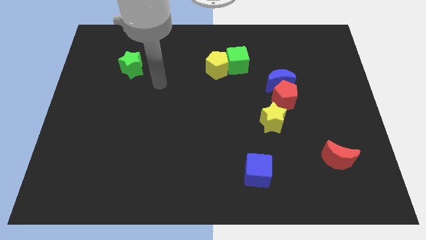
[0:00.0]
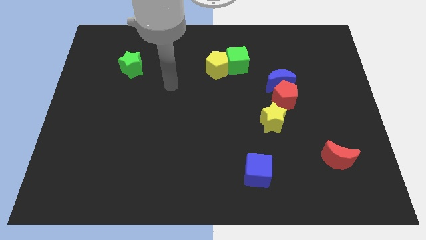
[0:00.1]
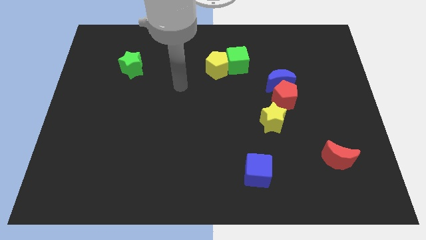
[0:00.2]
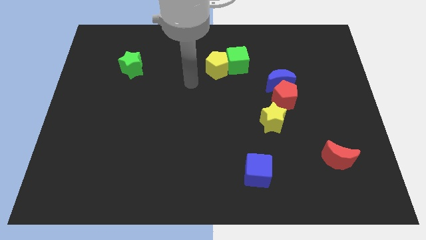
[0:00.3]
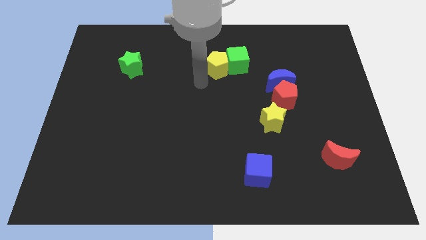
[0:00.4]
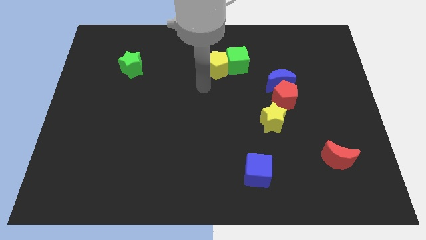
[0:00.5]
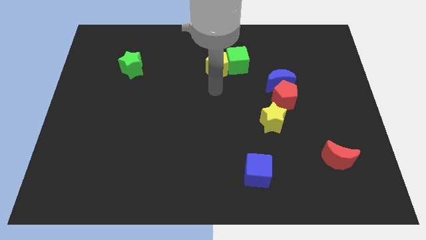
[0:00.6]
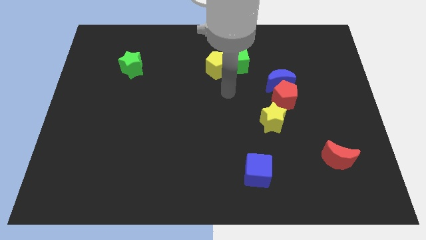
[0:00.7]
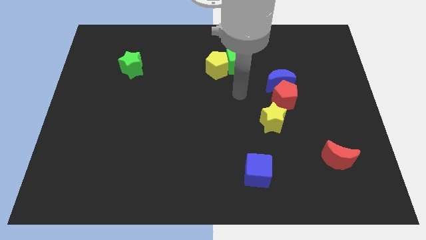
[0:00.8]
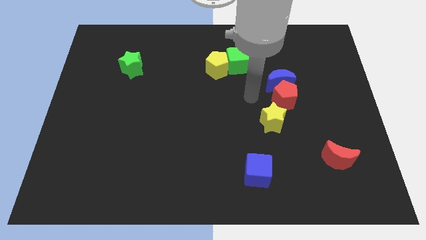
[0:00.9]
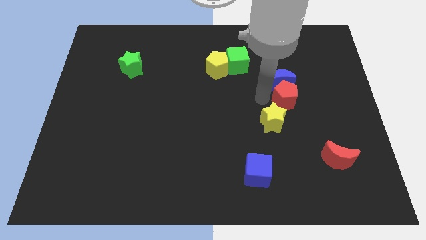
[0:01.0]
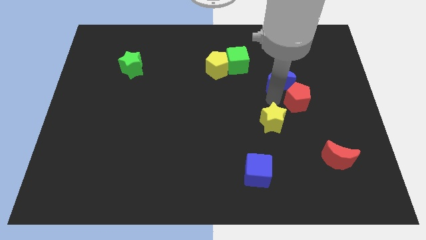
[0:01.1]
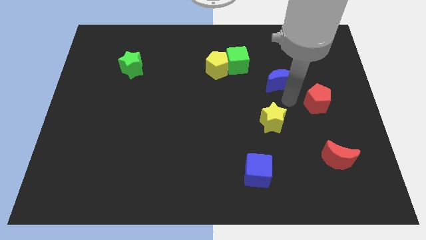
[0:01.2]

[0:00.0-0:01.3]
pull the blue moon apart from the red pentagon

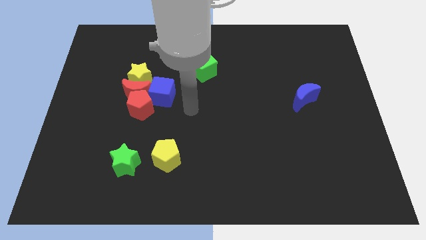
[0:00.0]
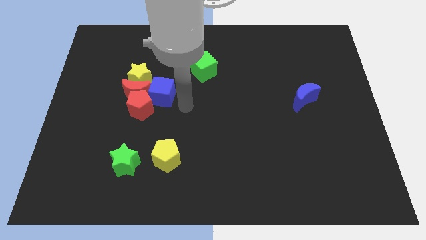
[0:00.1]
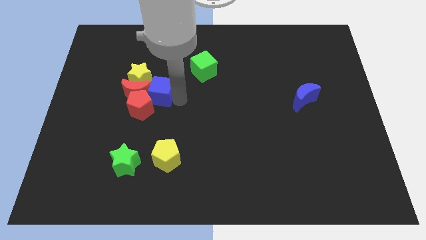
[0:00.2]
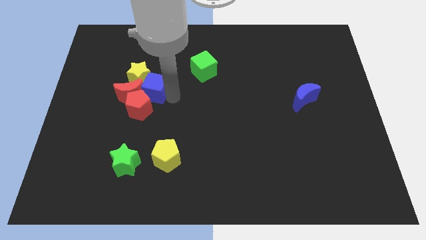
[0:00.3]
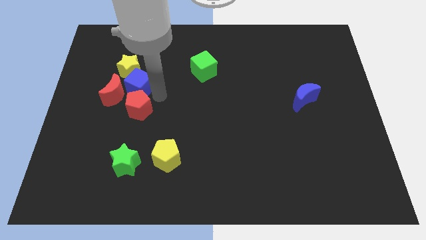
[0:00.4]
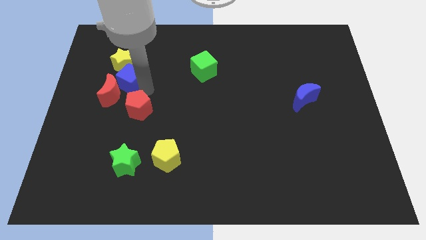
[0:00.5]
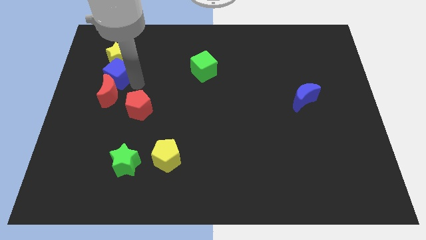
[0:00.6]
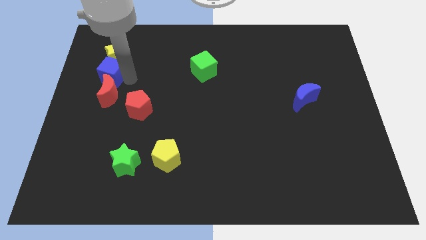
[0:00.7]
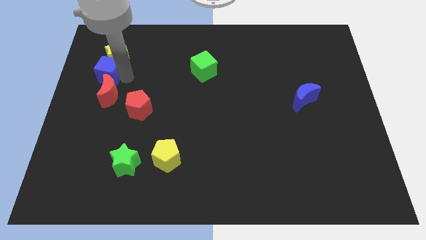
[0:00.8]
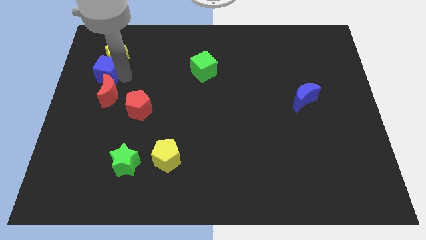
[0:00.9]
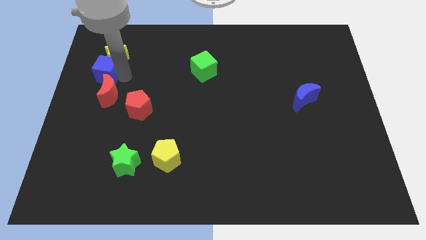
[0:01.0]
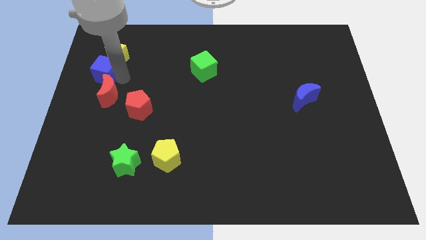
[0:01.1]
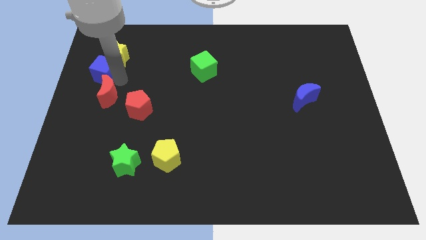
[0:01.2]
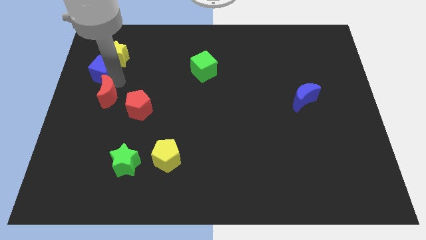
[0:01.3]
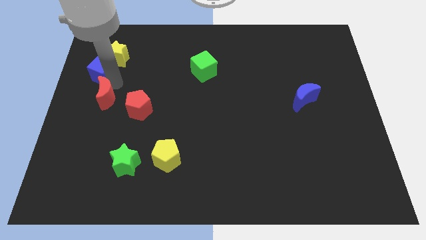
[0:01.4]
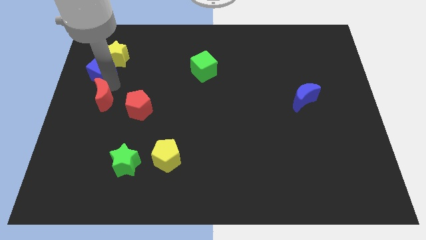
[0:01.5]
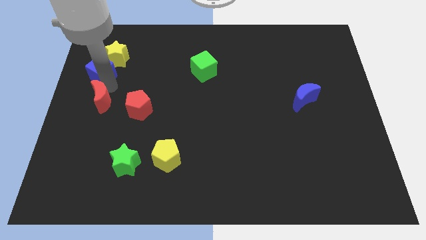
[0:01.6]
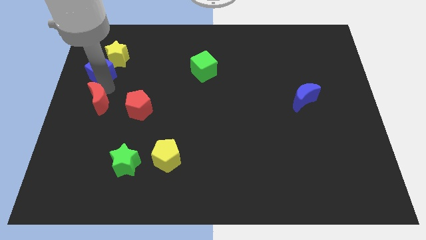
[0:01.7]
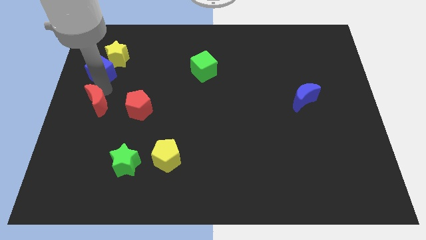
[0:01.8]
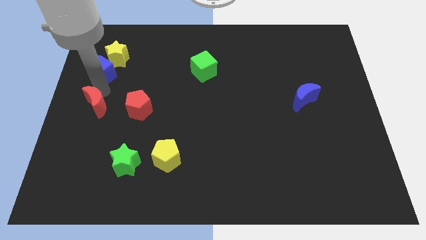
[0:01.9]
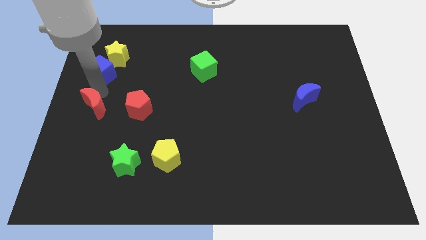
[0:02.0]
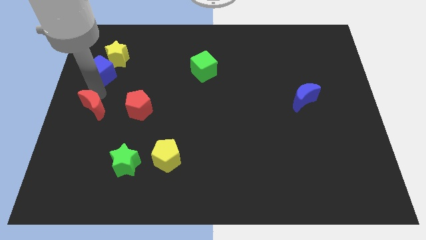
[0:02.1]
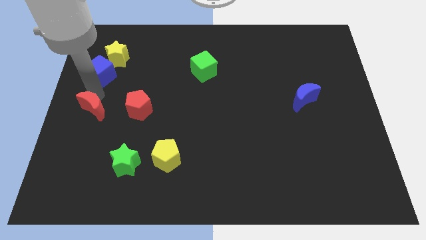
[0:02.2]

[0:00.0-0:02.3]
move the red moon away from the red pentagon, yellow star, and blue cube

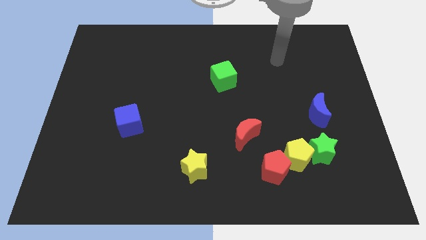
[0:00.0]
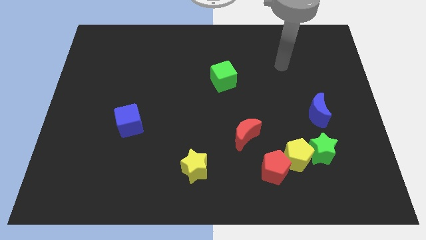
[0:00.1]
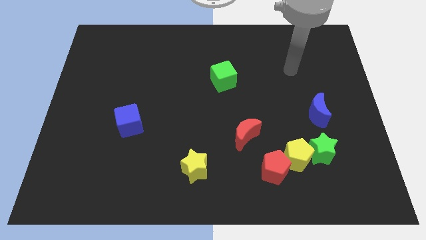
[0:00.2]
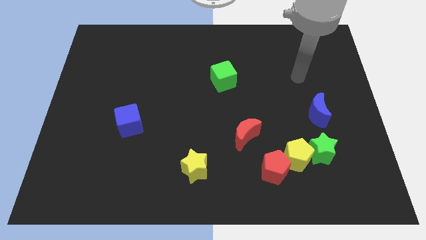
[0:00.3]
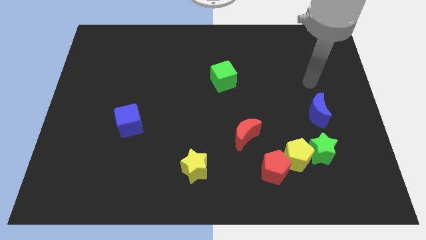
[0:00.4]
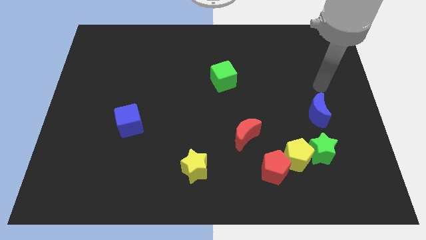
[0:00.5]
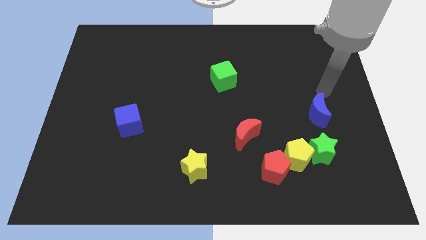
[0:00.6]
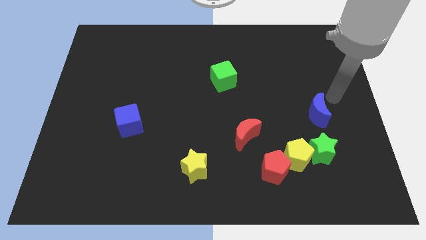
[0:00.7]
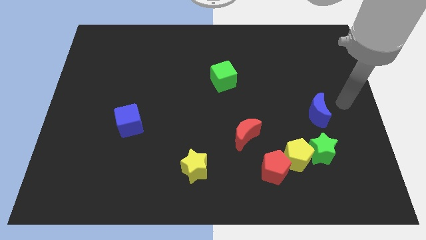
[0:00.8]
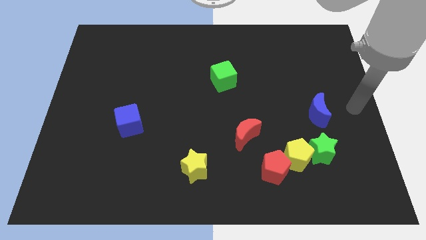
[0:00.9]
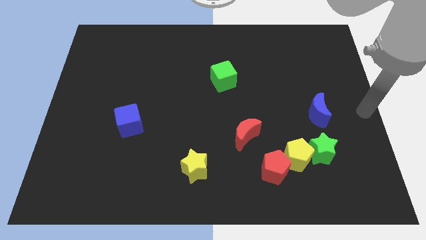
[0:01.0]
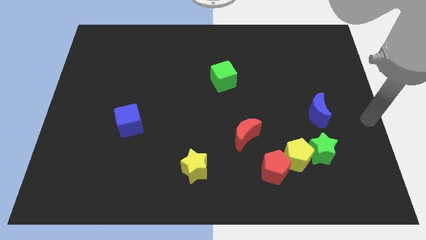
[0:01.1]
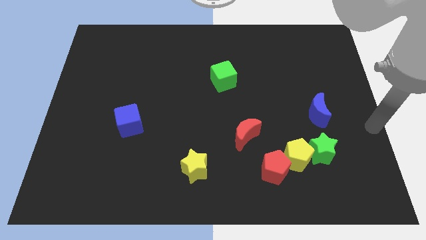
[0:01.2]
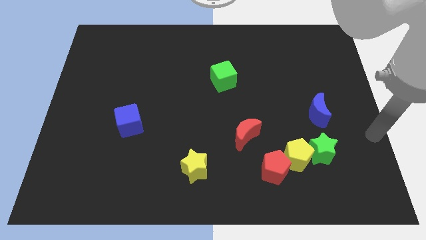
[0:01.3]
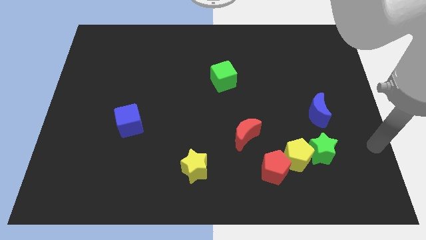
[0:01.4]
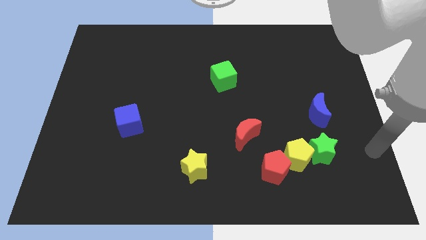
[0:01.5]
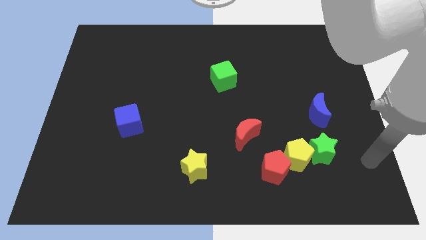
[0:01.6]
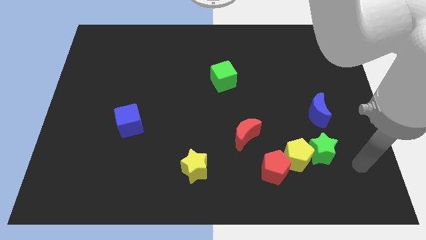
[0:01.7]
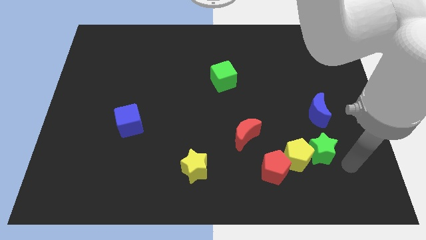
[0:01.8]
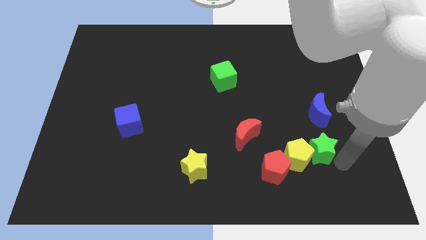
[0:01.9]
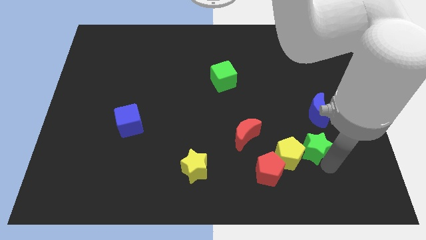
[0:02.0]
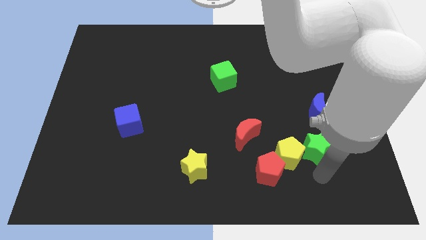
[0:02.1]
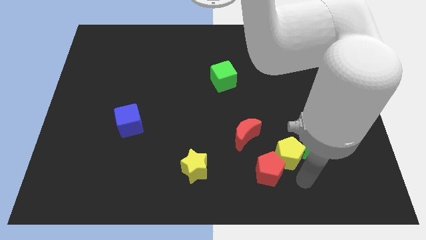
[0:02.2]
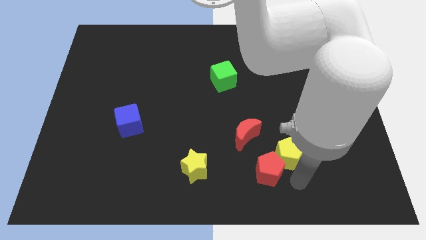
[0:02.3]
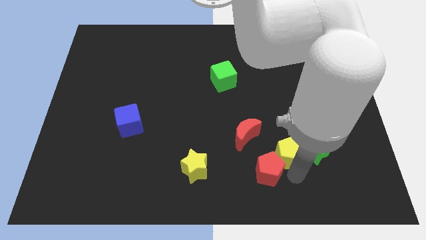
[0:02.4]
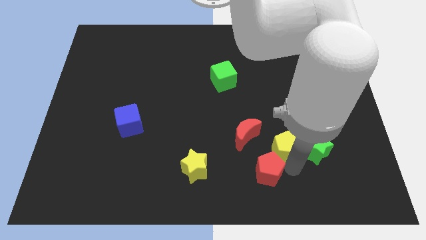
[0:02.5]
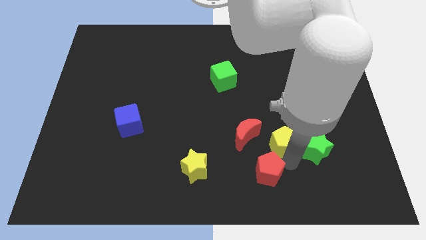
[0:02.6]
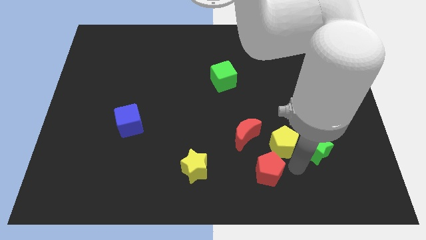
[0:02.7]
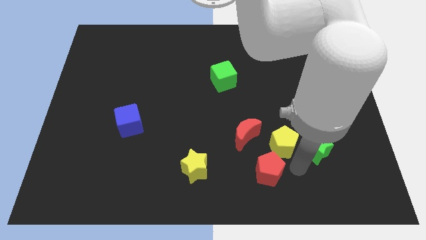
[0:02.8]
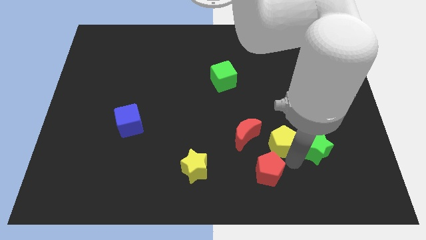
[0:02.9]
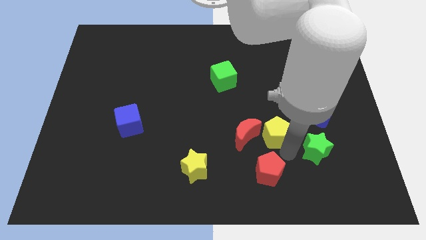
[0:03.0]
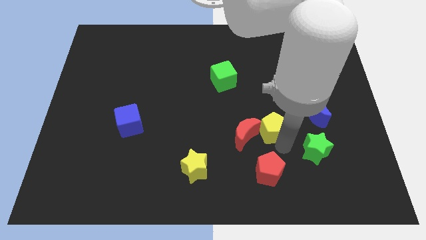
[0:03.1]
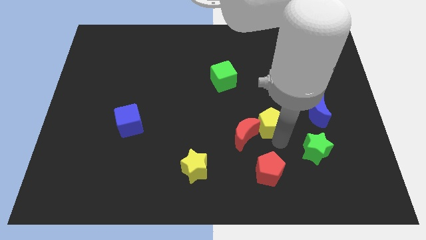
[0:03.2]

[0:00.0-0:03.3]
pull the yellow pentagon apart from the green star and red pentagon

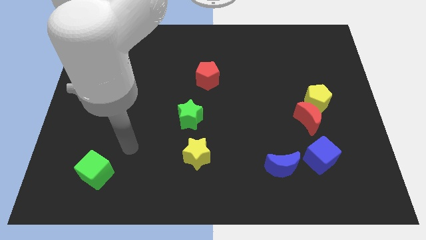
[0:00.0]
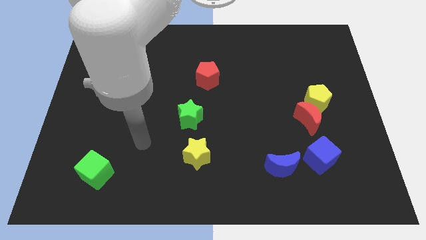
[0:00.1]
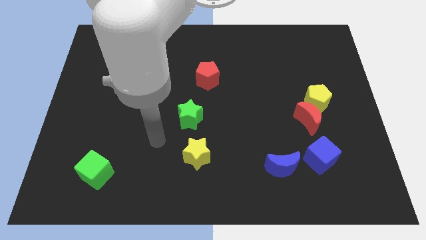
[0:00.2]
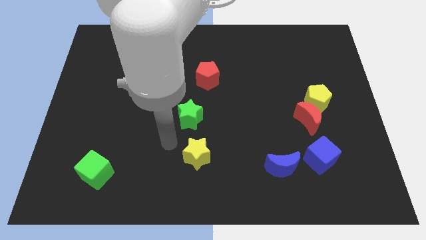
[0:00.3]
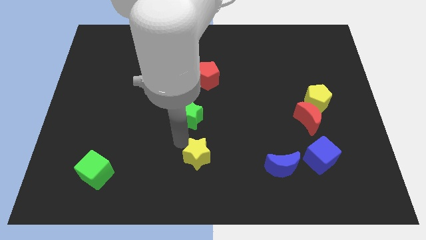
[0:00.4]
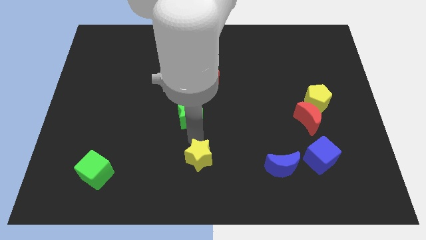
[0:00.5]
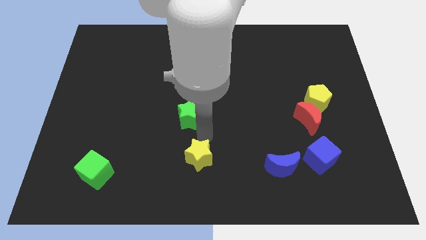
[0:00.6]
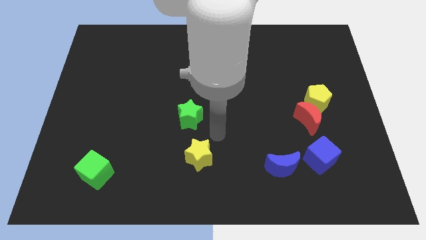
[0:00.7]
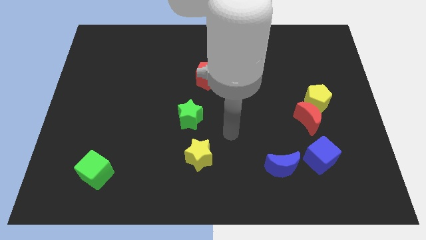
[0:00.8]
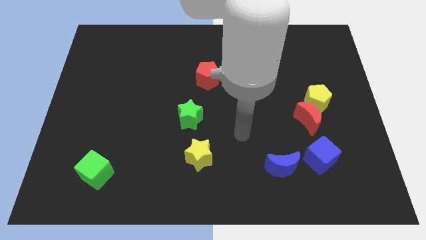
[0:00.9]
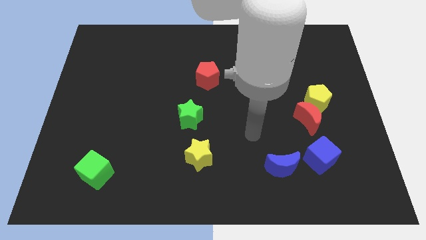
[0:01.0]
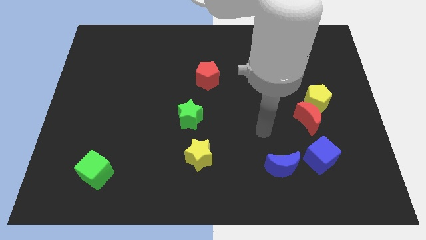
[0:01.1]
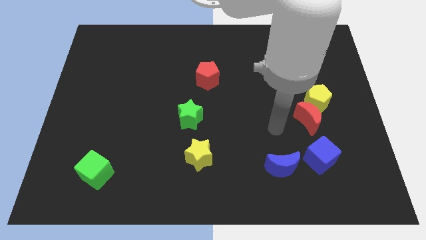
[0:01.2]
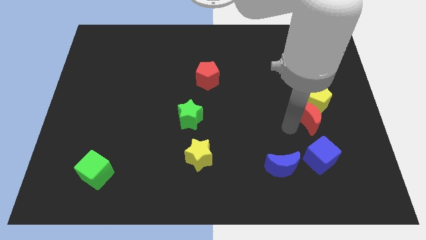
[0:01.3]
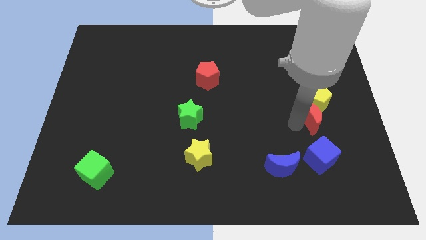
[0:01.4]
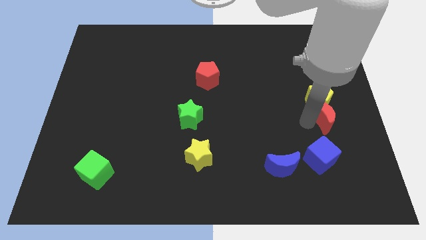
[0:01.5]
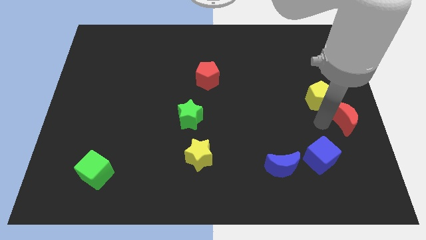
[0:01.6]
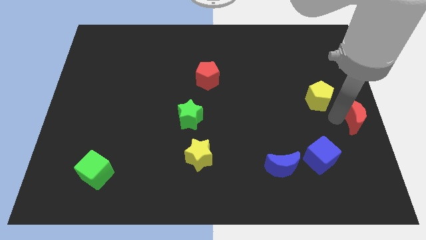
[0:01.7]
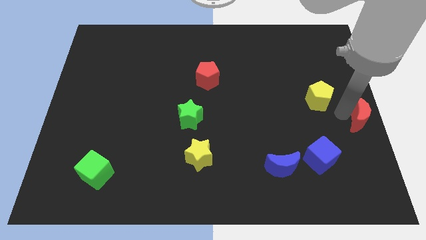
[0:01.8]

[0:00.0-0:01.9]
pull the yellow pentagon apart from the red moon

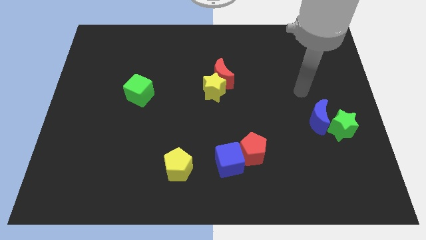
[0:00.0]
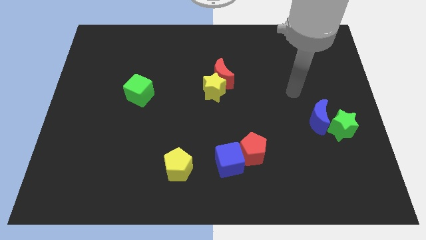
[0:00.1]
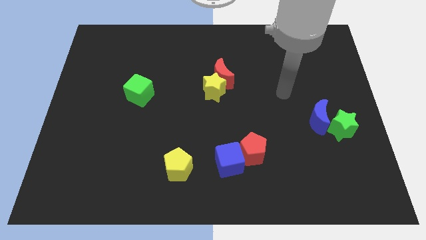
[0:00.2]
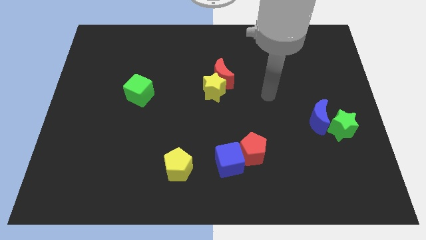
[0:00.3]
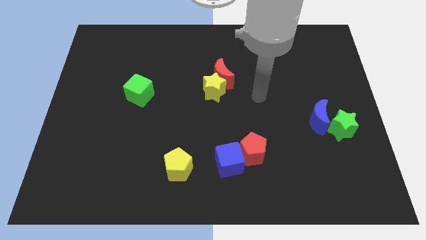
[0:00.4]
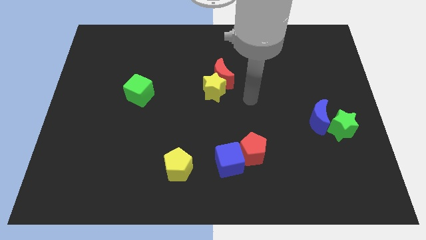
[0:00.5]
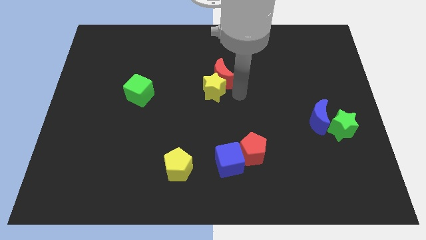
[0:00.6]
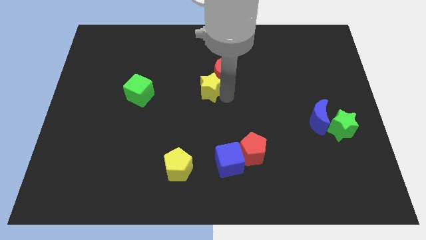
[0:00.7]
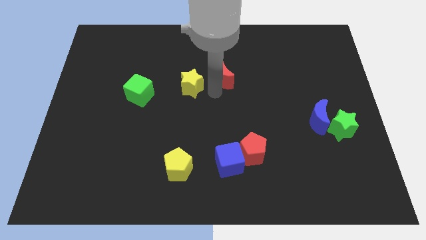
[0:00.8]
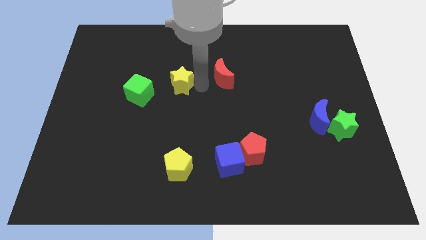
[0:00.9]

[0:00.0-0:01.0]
pull the red moon apart from the yellow star
